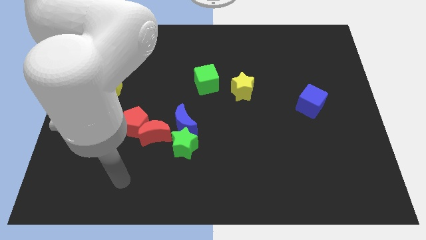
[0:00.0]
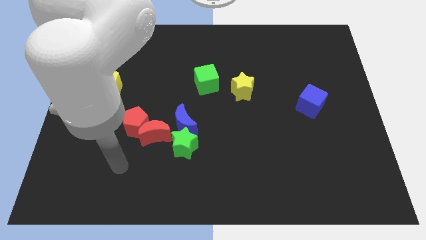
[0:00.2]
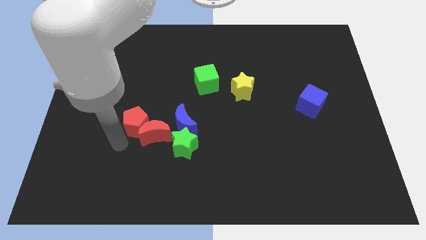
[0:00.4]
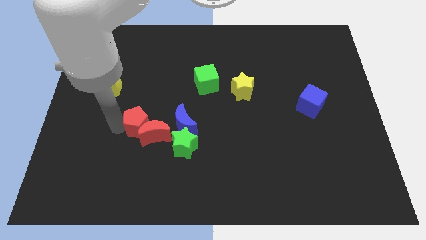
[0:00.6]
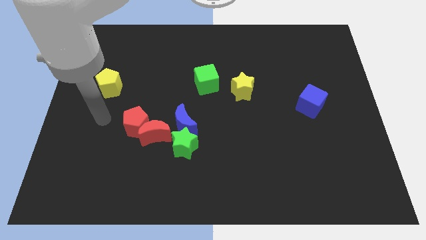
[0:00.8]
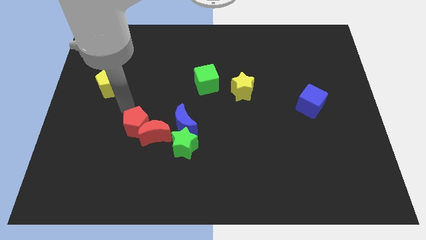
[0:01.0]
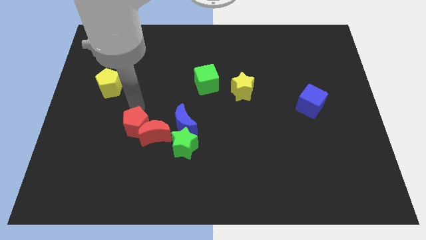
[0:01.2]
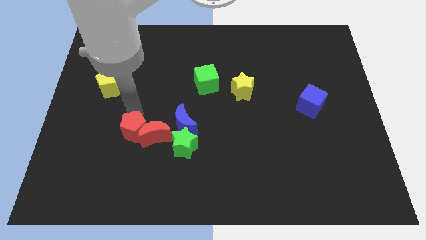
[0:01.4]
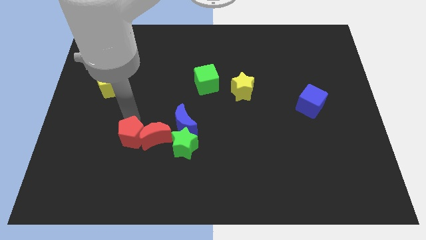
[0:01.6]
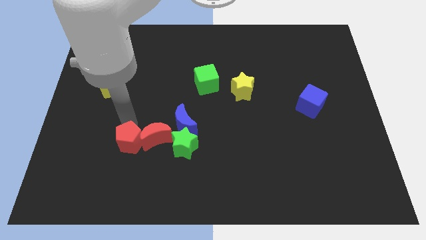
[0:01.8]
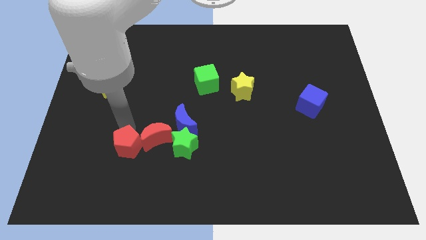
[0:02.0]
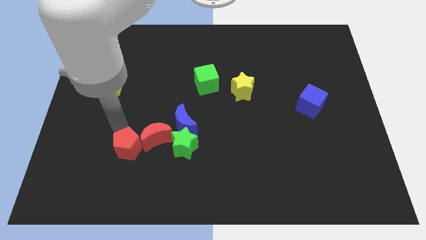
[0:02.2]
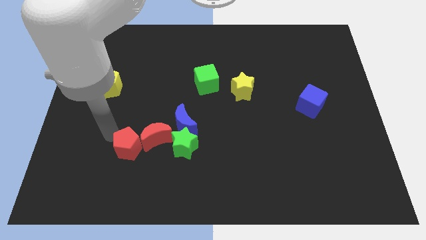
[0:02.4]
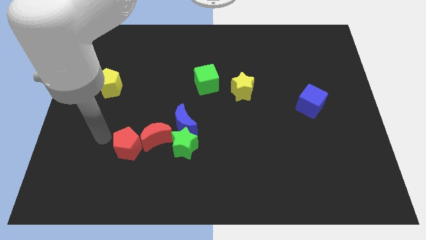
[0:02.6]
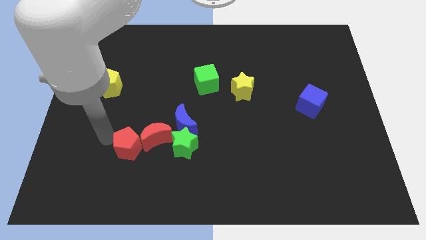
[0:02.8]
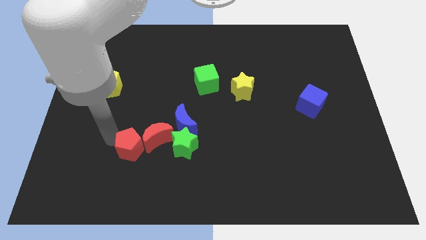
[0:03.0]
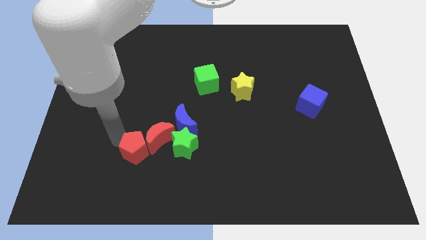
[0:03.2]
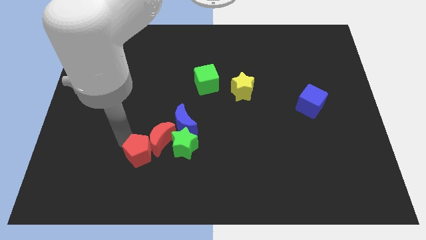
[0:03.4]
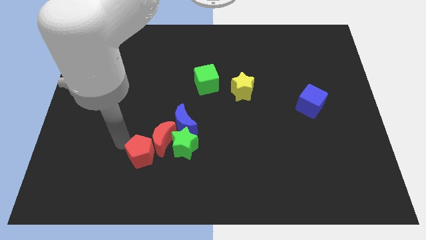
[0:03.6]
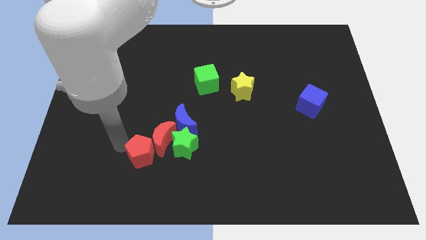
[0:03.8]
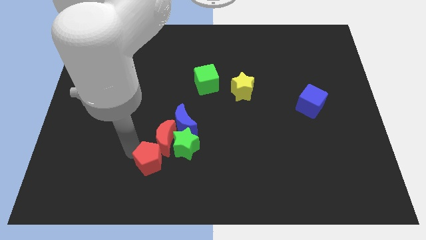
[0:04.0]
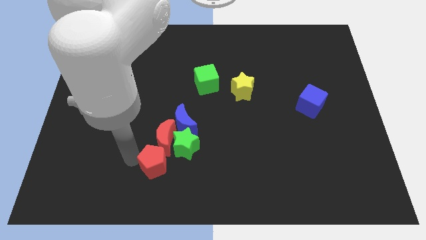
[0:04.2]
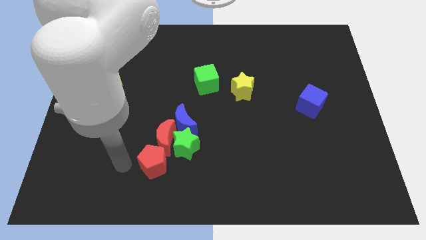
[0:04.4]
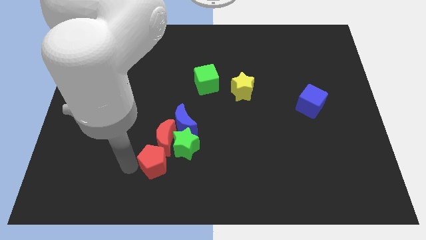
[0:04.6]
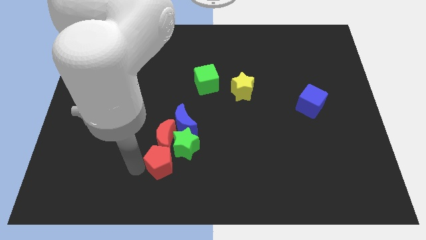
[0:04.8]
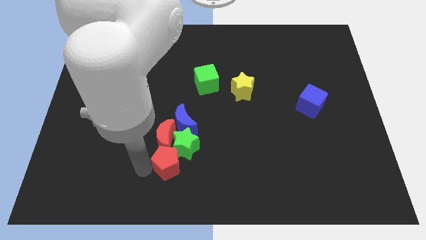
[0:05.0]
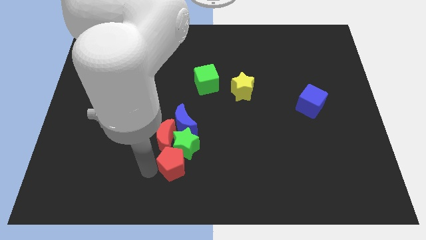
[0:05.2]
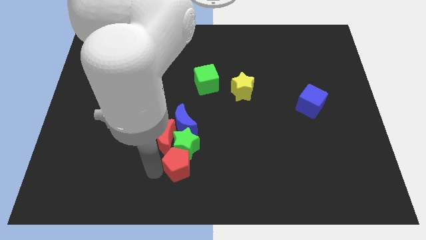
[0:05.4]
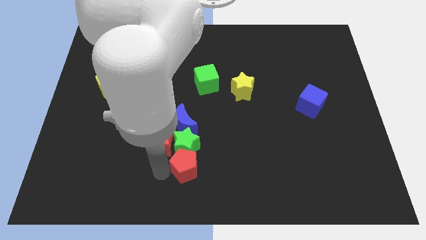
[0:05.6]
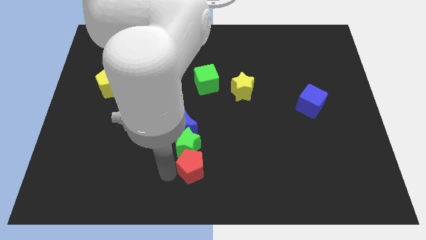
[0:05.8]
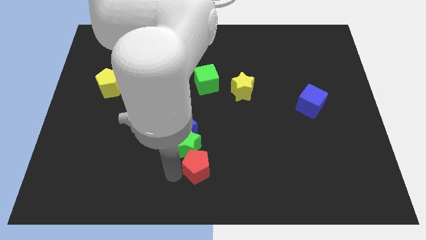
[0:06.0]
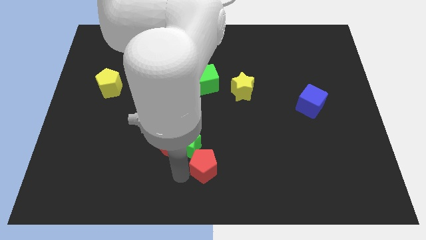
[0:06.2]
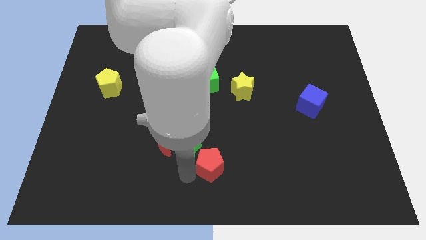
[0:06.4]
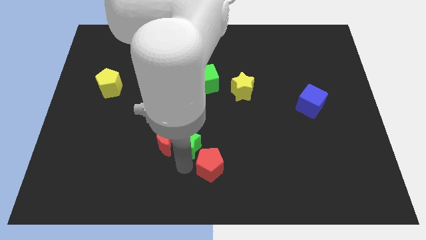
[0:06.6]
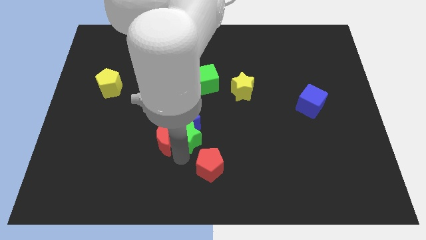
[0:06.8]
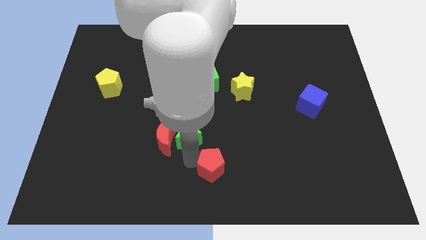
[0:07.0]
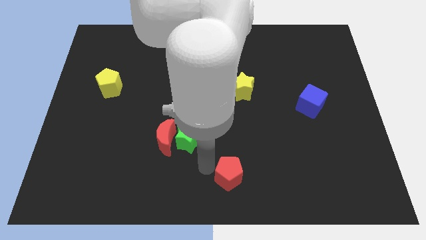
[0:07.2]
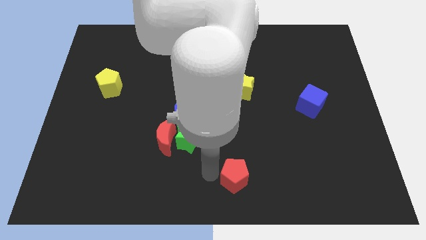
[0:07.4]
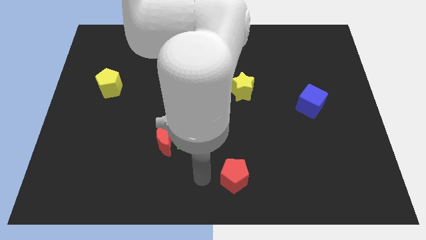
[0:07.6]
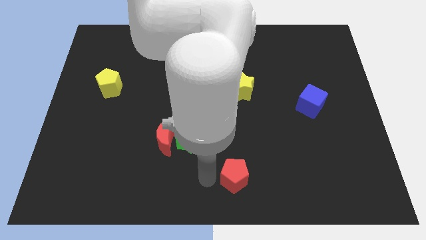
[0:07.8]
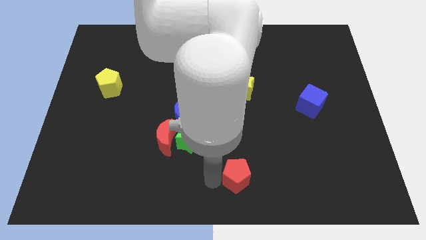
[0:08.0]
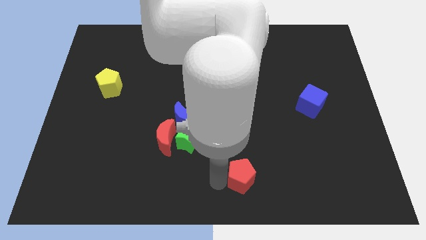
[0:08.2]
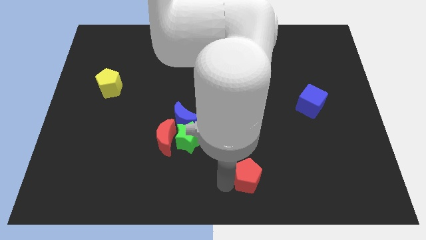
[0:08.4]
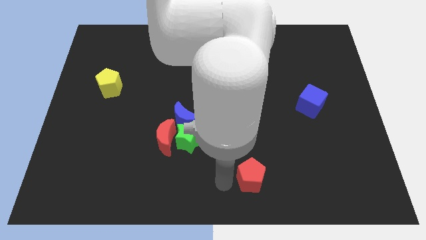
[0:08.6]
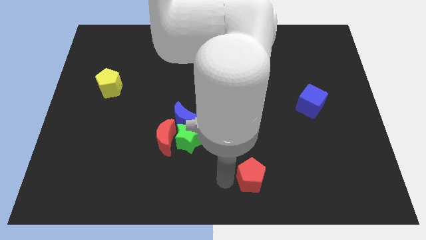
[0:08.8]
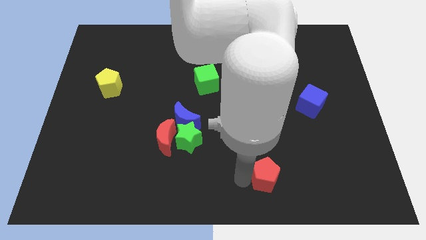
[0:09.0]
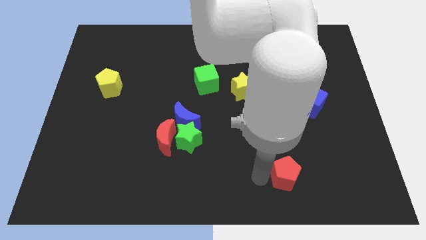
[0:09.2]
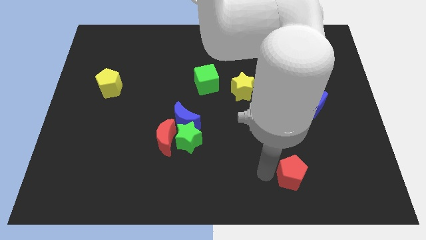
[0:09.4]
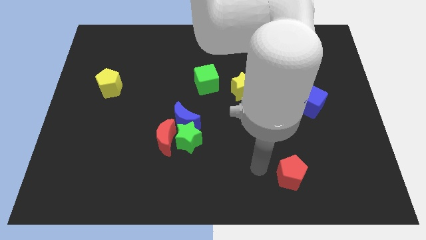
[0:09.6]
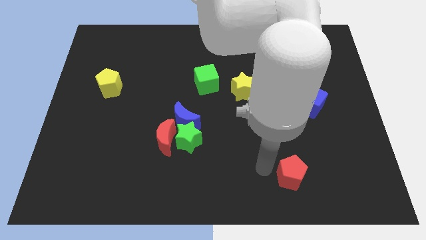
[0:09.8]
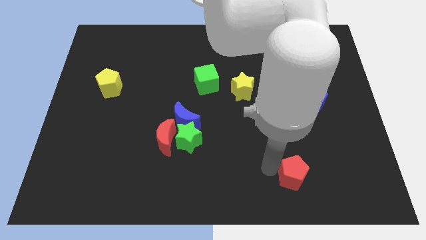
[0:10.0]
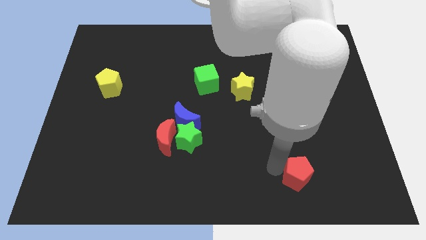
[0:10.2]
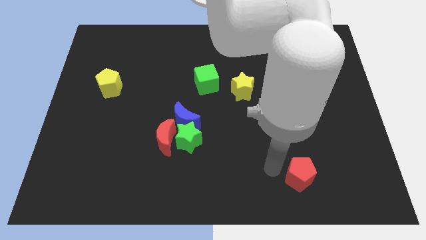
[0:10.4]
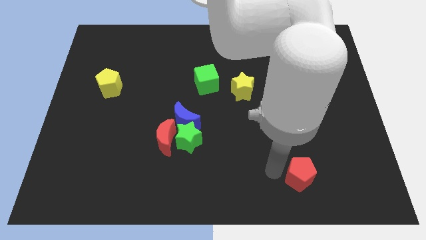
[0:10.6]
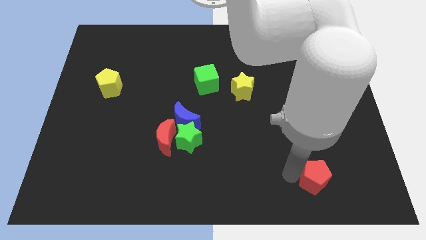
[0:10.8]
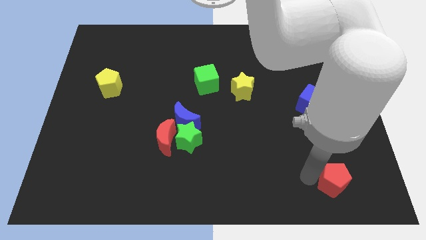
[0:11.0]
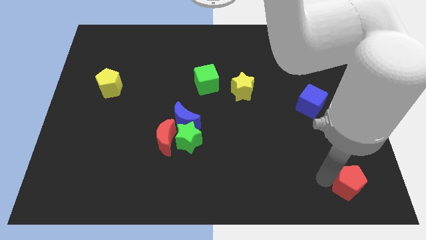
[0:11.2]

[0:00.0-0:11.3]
push the red pentagon to the bottom right corner
